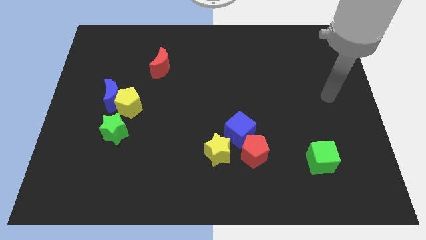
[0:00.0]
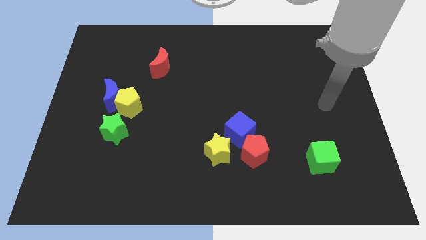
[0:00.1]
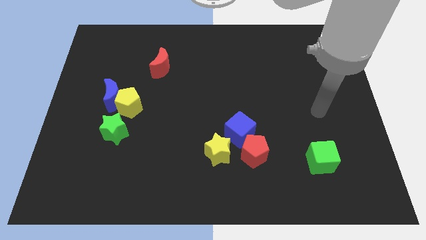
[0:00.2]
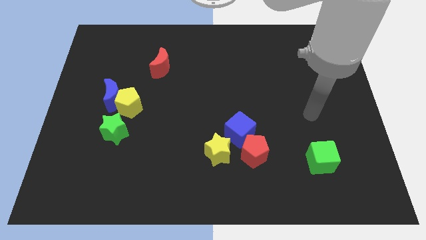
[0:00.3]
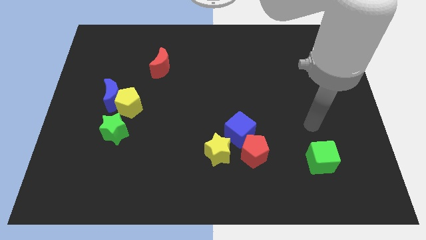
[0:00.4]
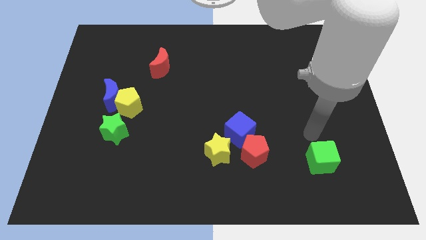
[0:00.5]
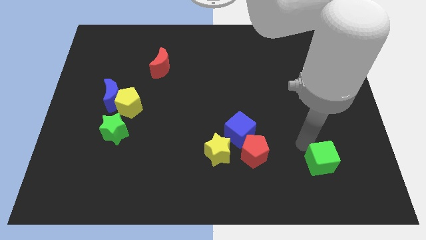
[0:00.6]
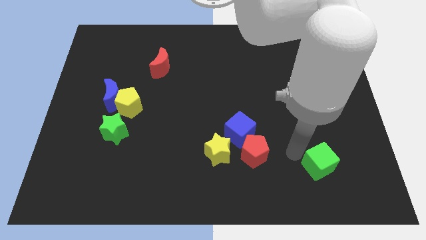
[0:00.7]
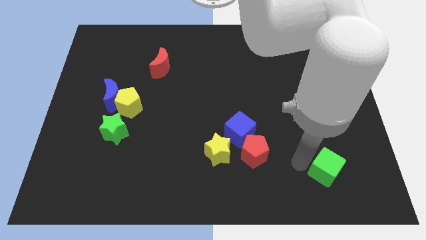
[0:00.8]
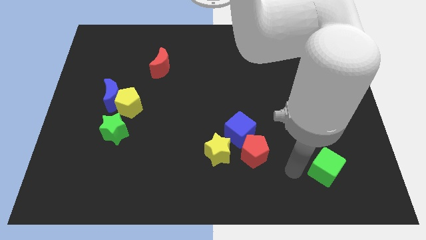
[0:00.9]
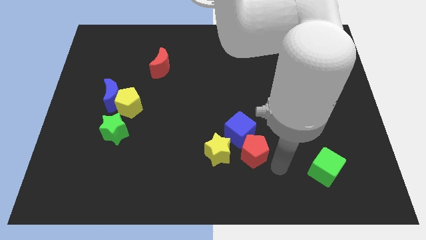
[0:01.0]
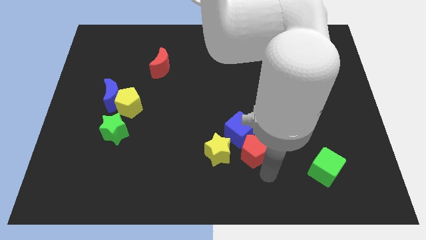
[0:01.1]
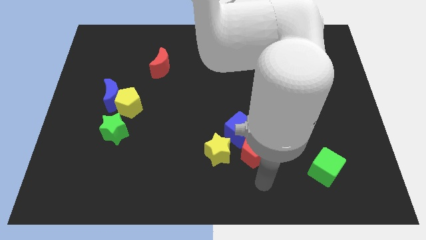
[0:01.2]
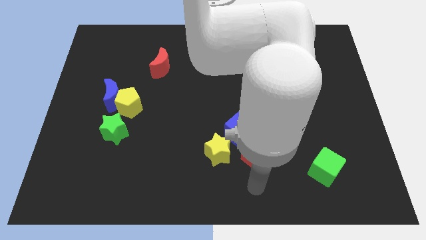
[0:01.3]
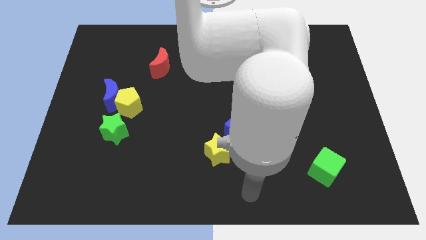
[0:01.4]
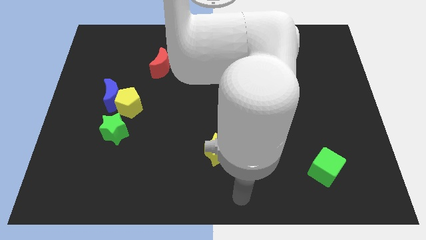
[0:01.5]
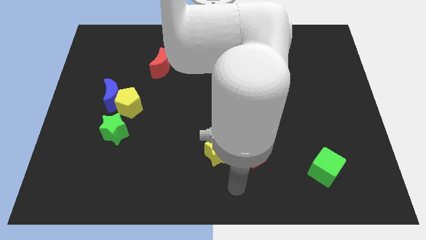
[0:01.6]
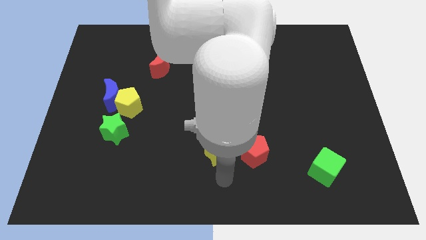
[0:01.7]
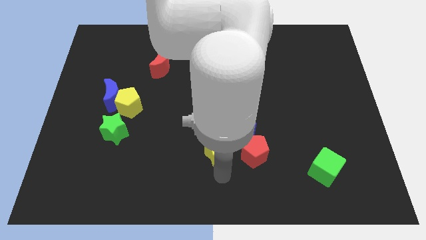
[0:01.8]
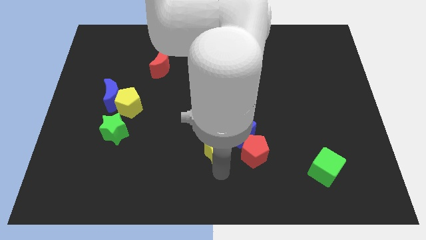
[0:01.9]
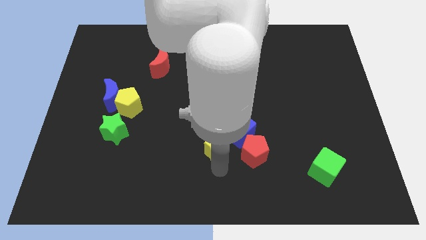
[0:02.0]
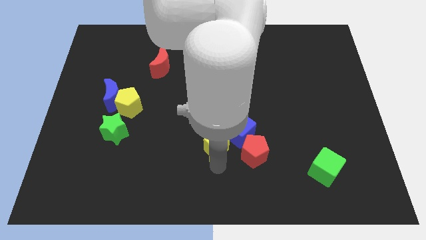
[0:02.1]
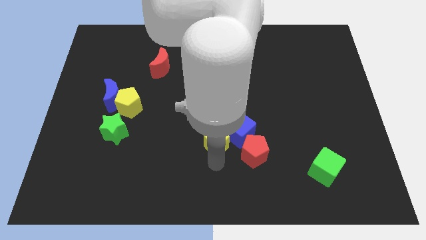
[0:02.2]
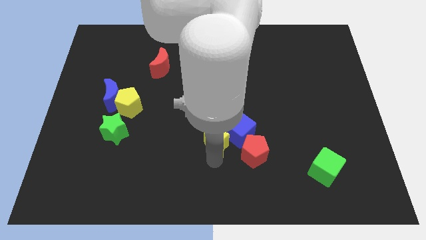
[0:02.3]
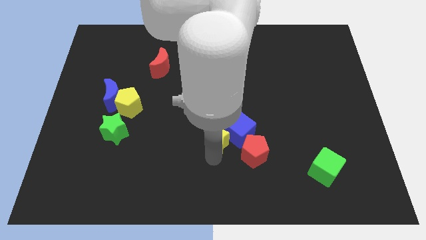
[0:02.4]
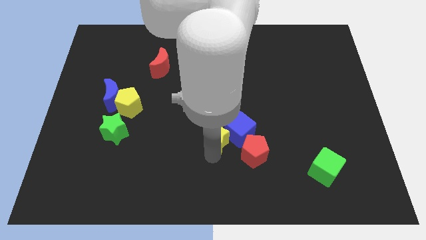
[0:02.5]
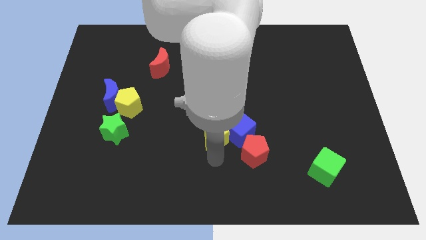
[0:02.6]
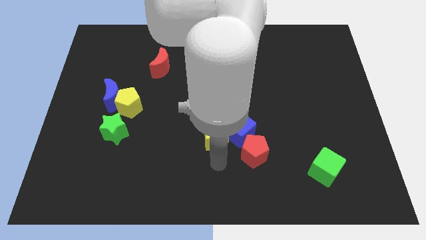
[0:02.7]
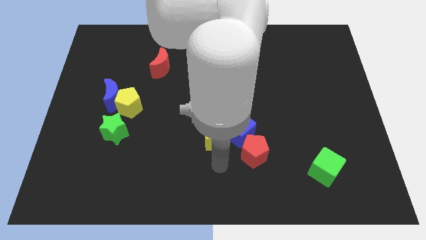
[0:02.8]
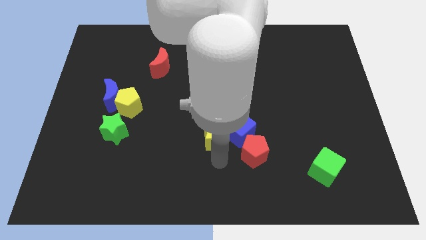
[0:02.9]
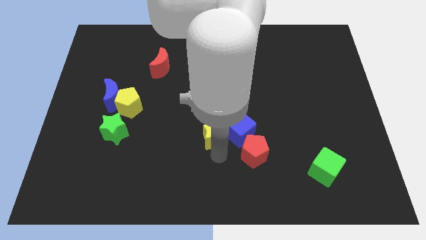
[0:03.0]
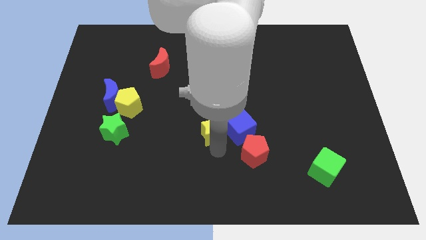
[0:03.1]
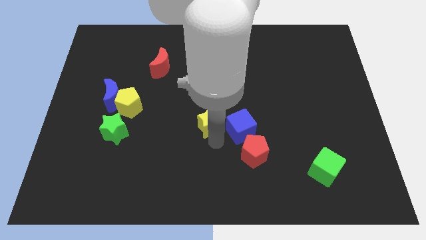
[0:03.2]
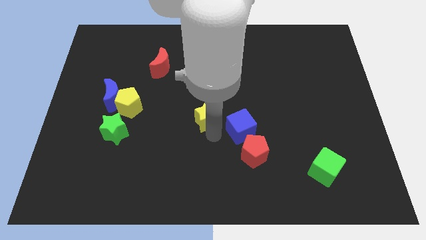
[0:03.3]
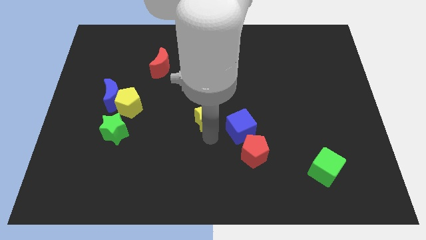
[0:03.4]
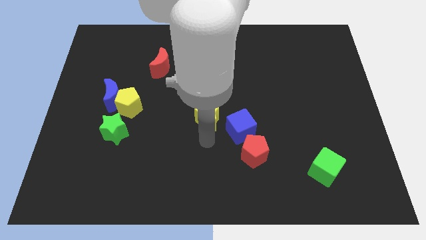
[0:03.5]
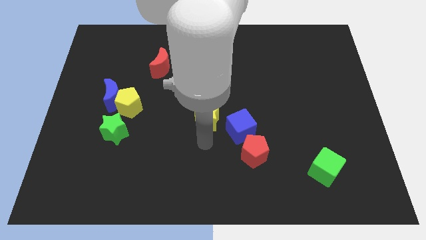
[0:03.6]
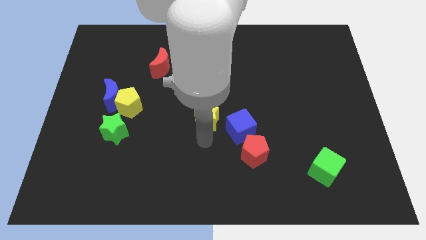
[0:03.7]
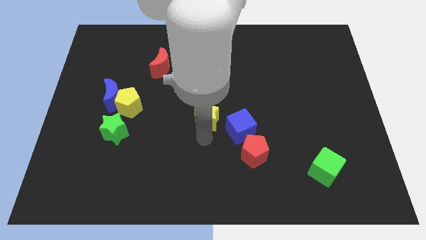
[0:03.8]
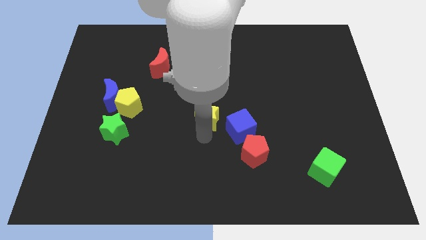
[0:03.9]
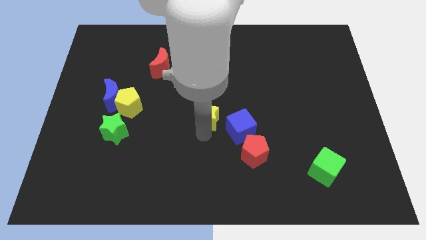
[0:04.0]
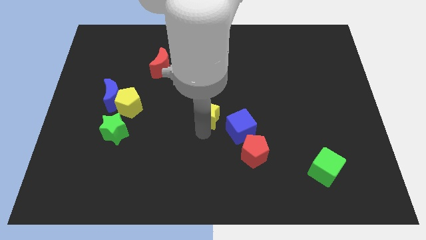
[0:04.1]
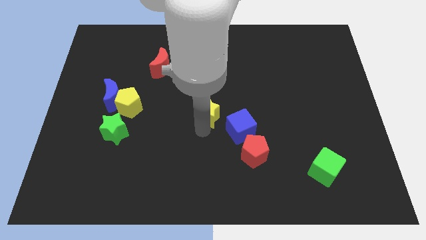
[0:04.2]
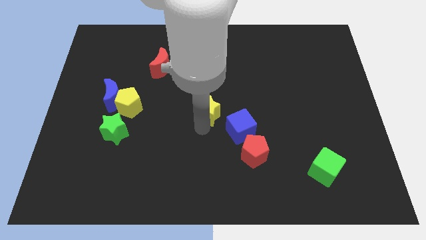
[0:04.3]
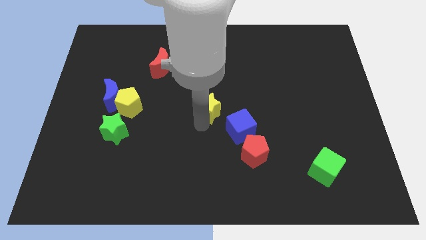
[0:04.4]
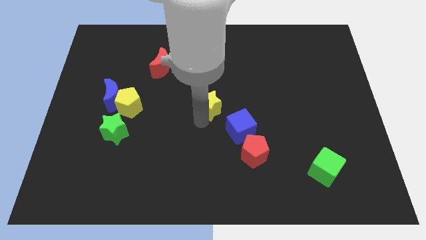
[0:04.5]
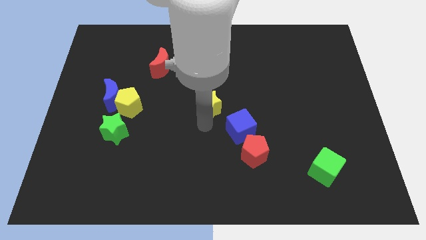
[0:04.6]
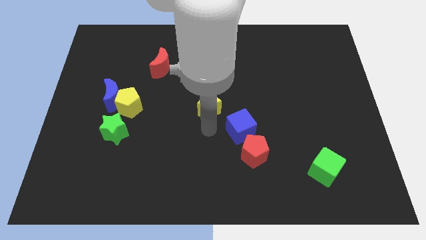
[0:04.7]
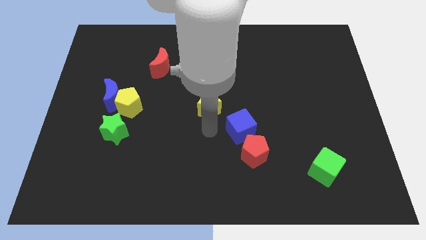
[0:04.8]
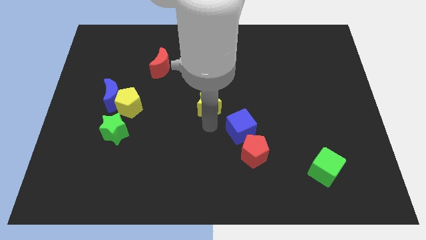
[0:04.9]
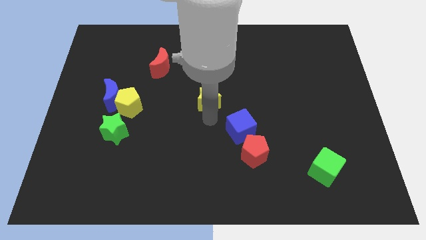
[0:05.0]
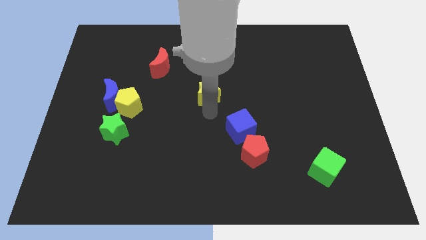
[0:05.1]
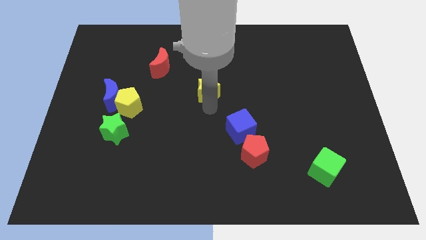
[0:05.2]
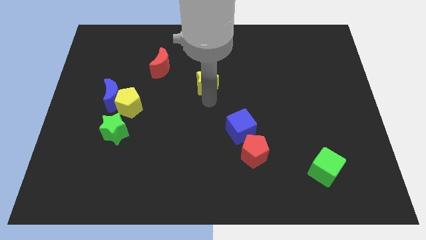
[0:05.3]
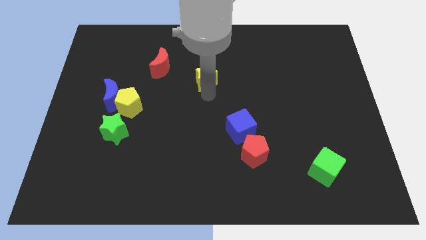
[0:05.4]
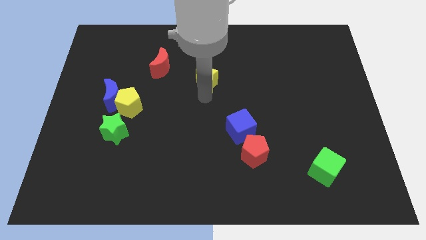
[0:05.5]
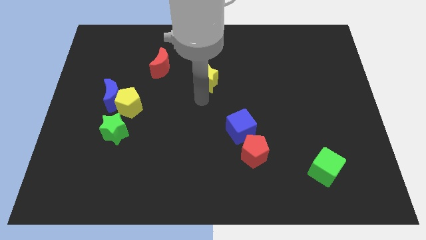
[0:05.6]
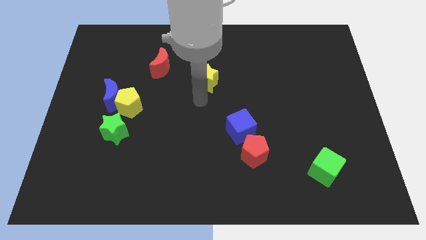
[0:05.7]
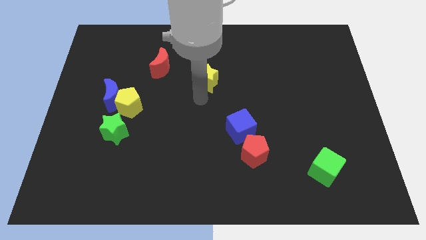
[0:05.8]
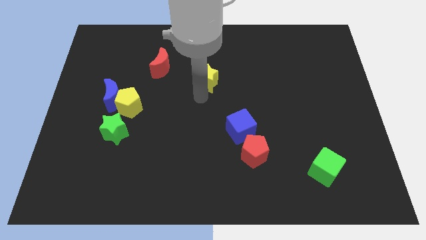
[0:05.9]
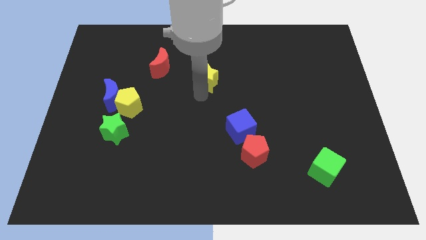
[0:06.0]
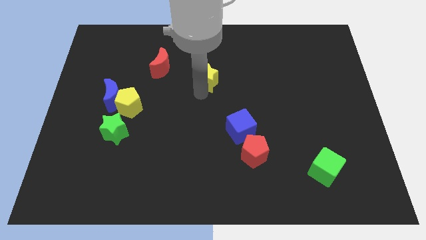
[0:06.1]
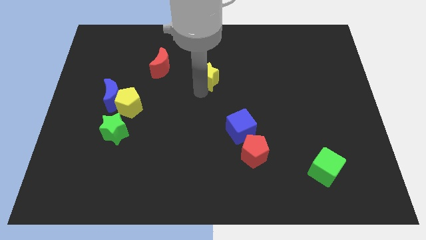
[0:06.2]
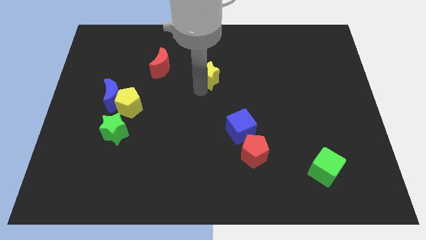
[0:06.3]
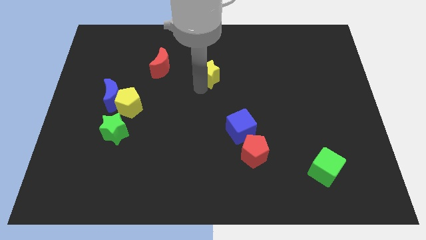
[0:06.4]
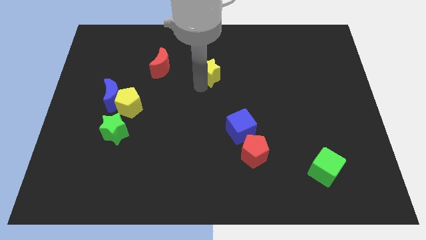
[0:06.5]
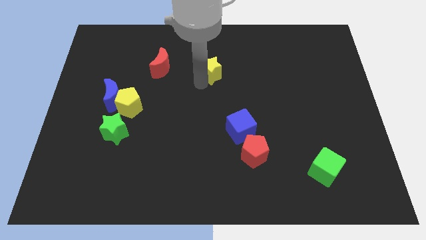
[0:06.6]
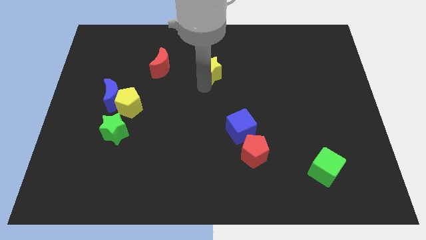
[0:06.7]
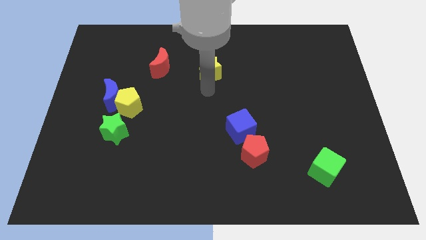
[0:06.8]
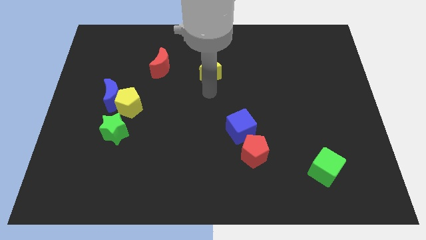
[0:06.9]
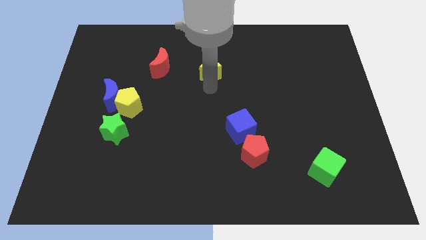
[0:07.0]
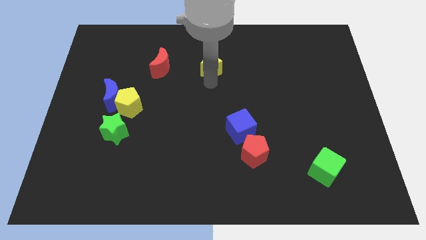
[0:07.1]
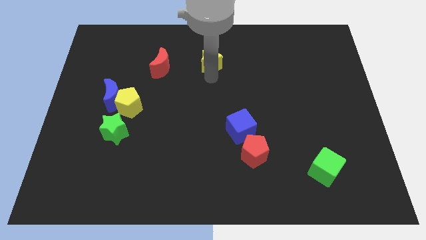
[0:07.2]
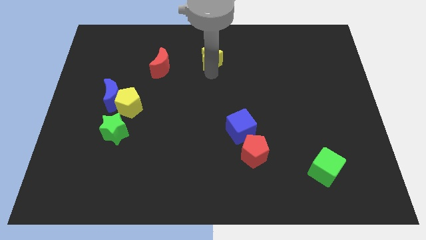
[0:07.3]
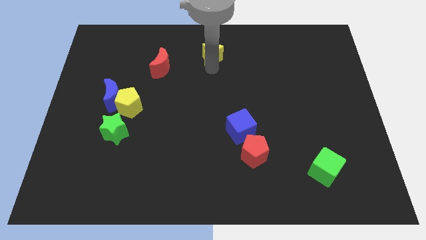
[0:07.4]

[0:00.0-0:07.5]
put the yellow star to the top
